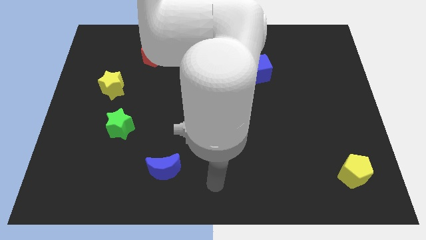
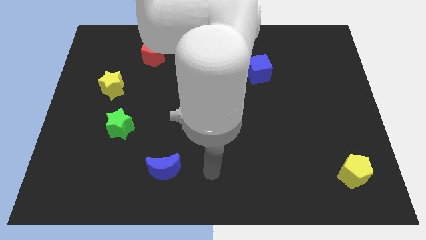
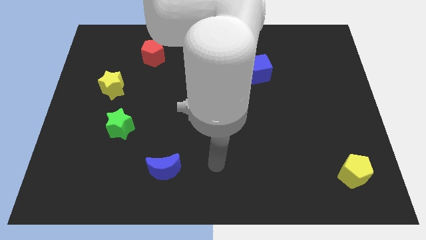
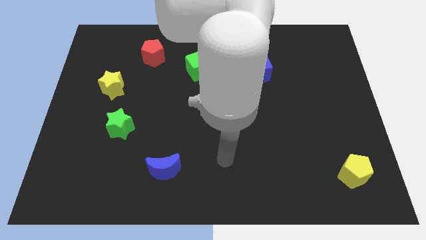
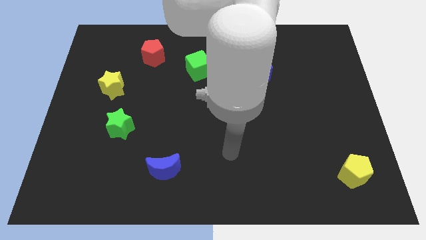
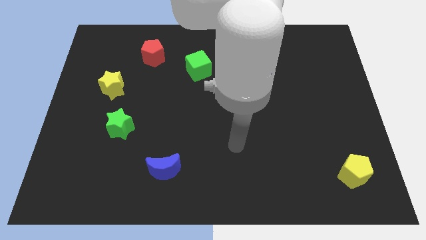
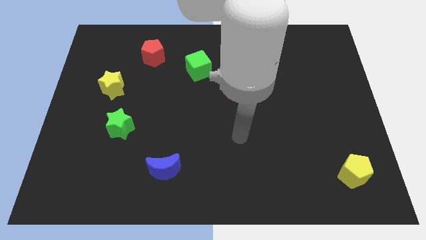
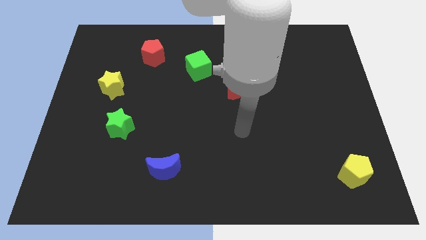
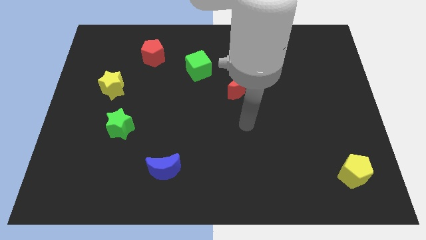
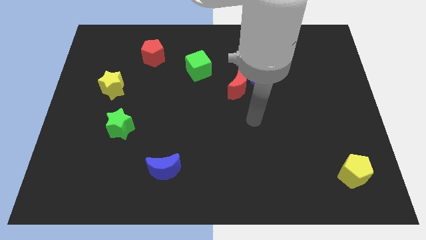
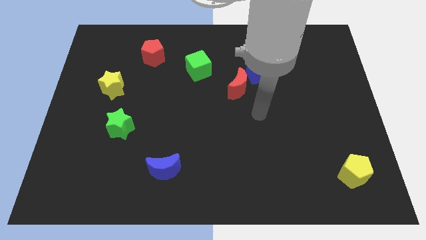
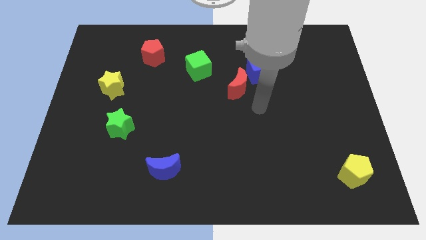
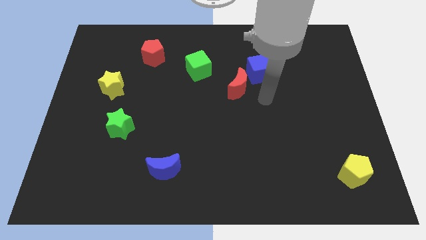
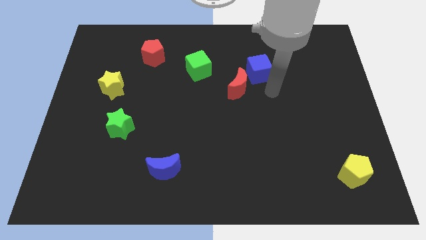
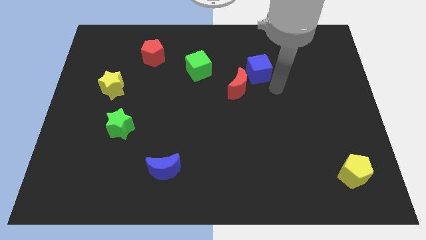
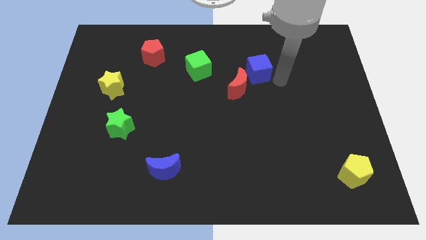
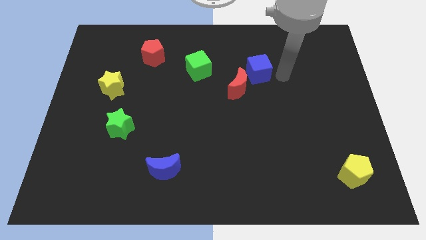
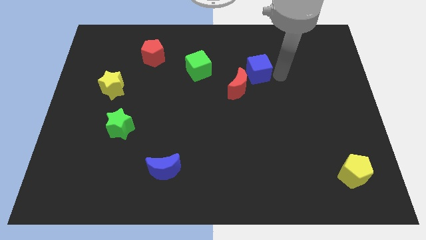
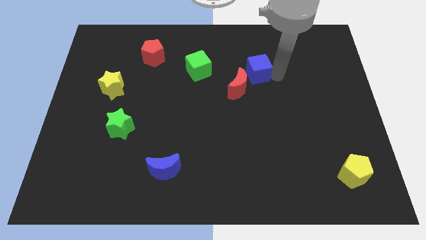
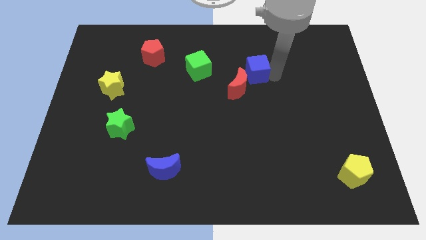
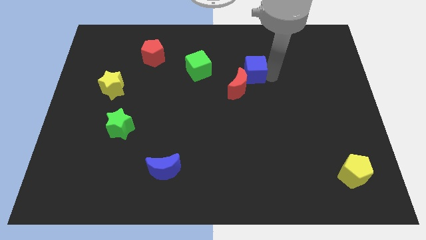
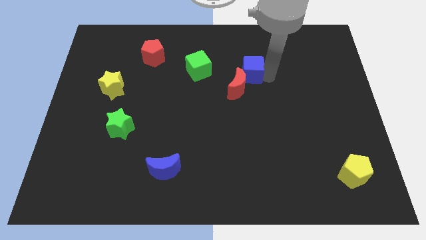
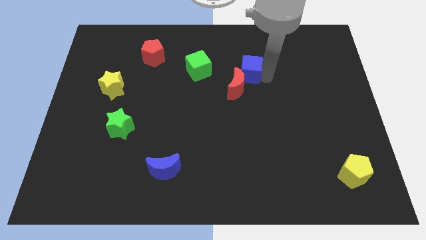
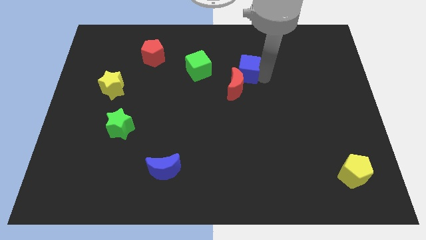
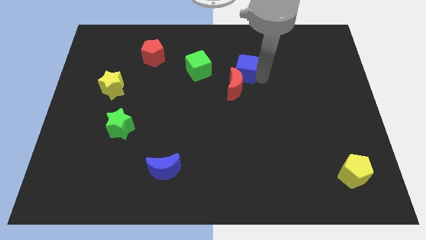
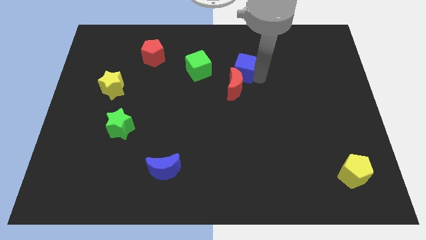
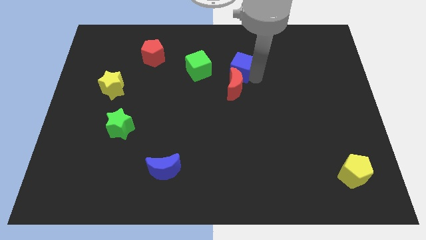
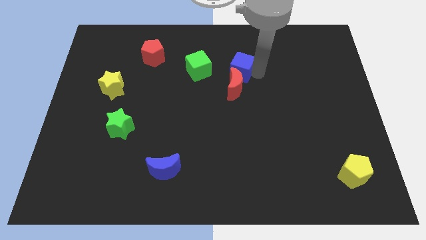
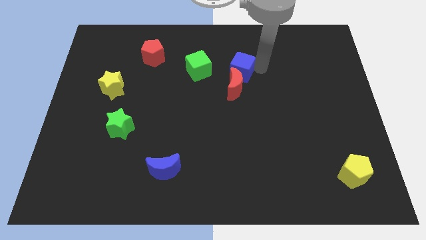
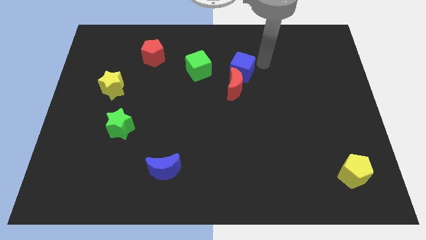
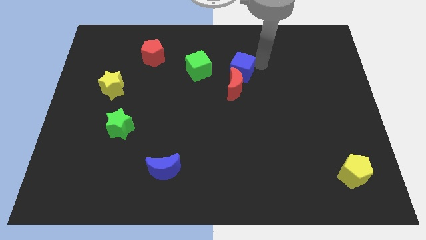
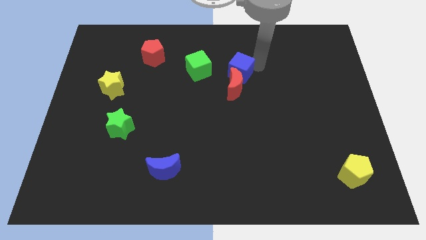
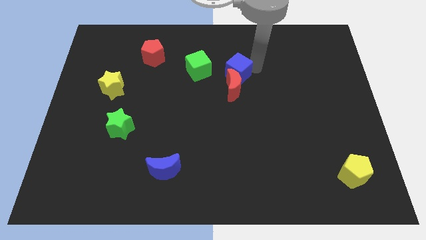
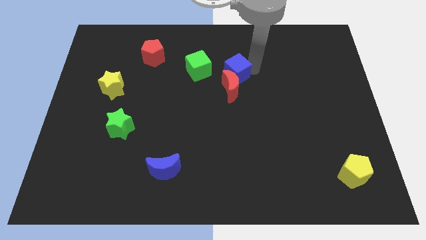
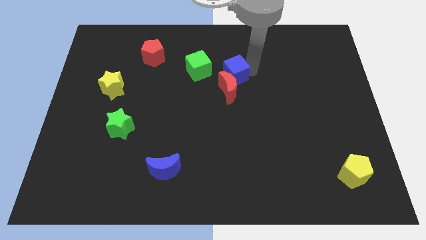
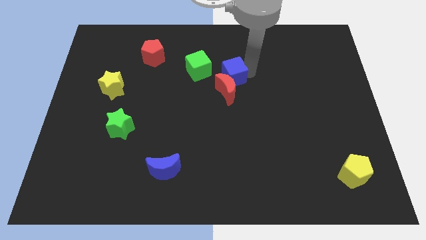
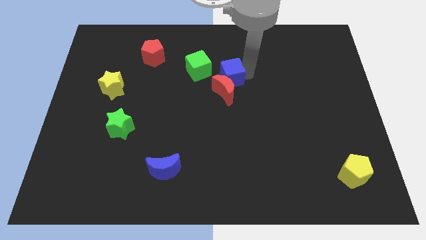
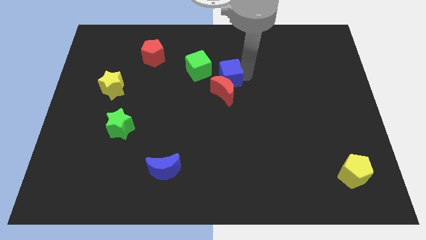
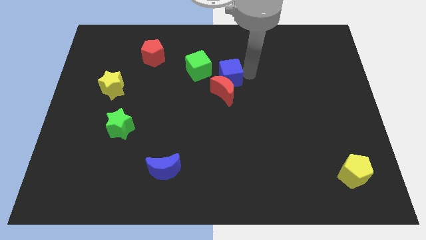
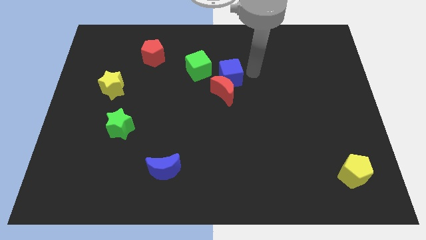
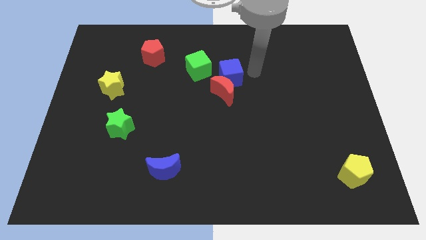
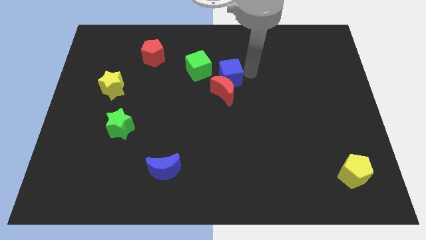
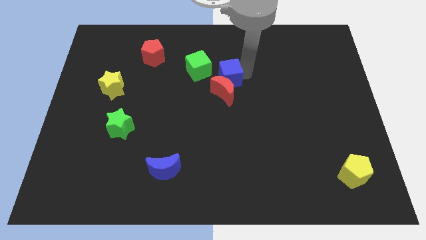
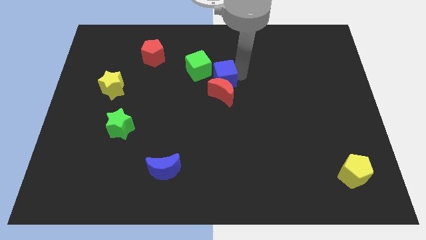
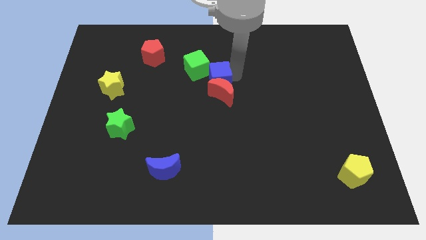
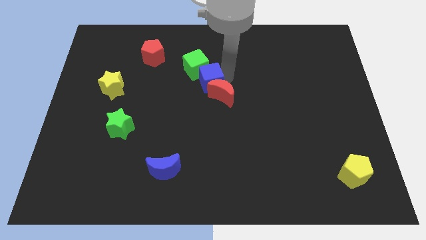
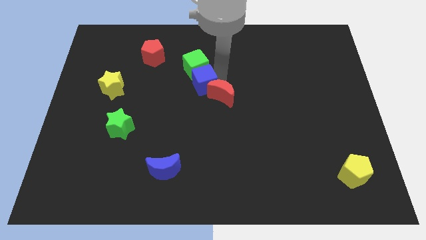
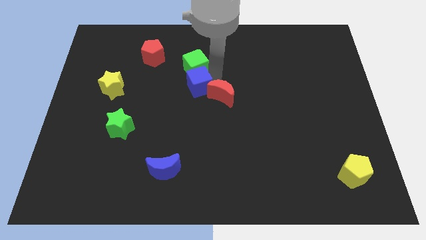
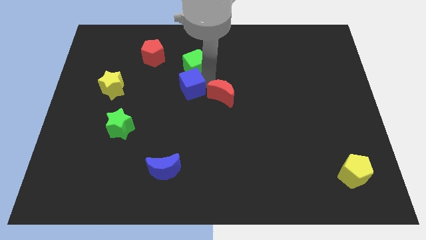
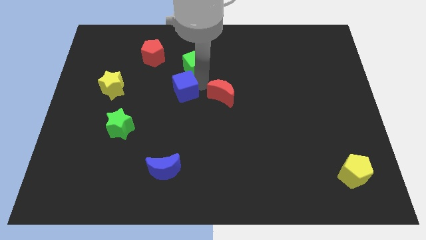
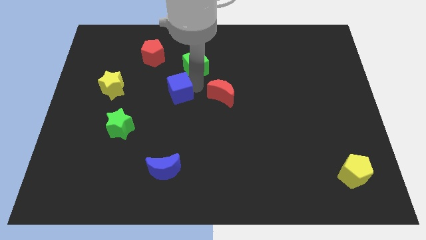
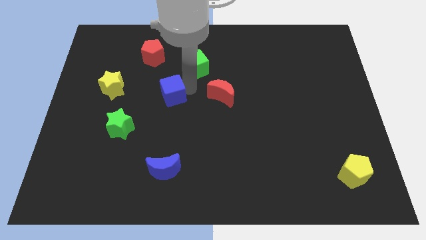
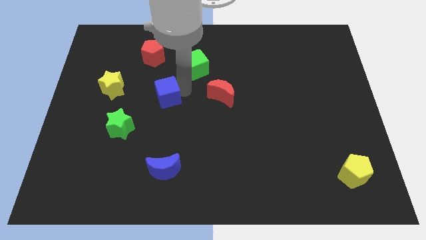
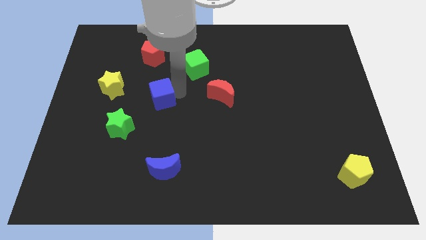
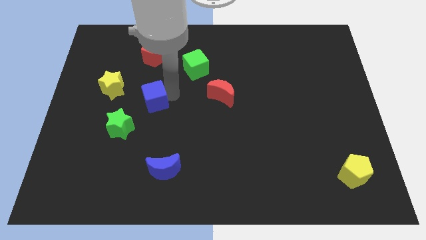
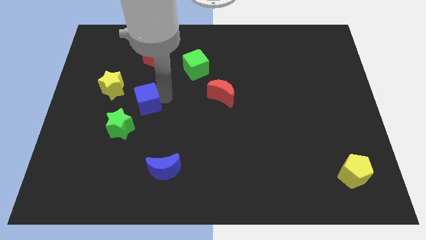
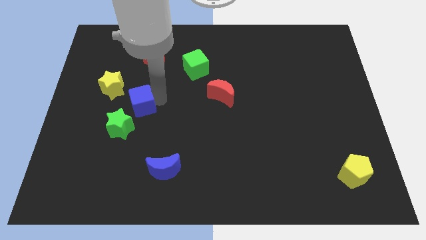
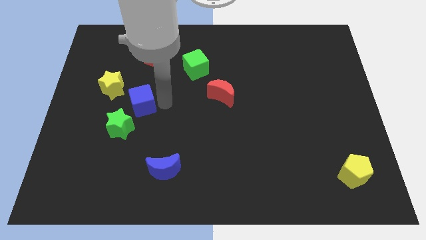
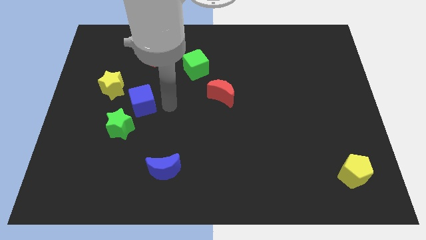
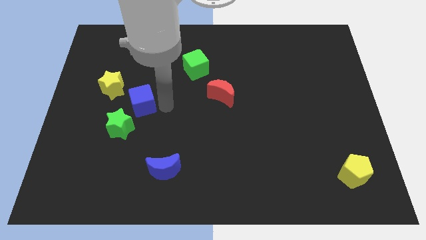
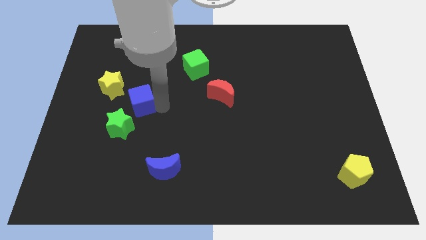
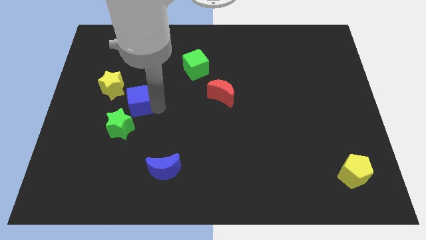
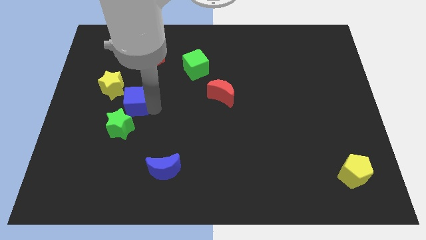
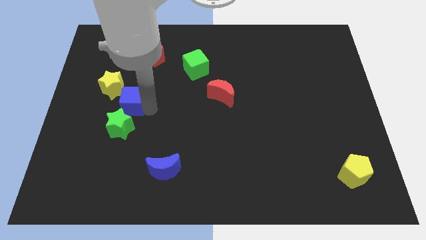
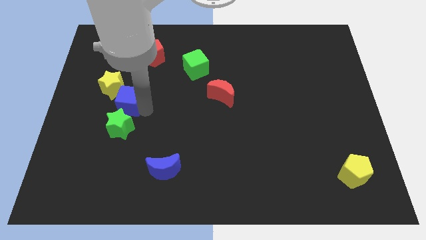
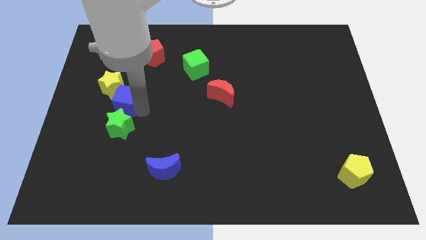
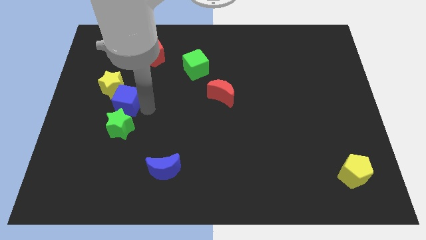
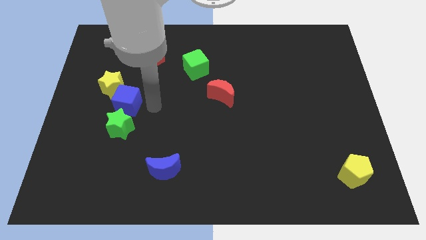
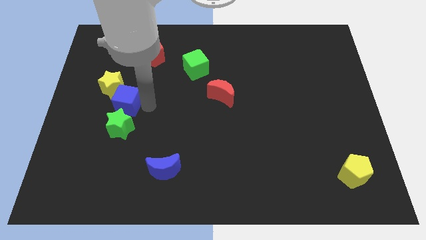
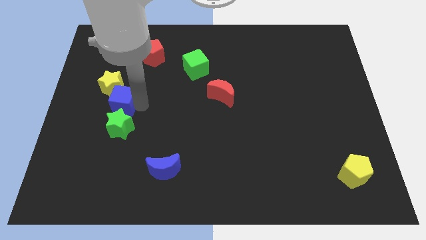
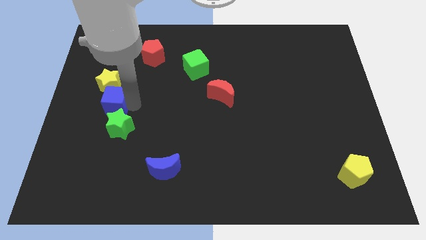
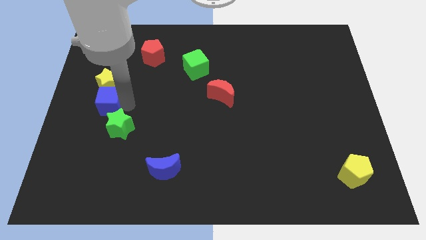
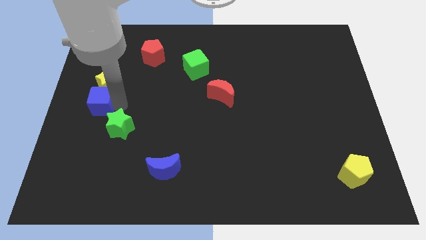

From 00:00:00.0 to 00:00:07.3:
move the blue cube to the center left
